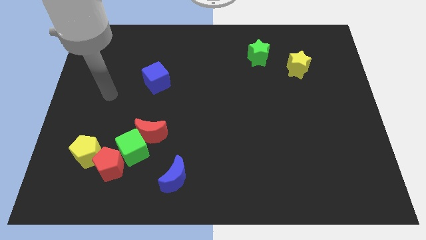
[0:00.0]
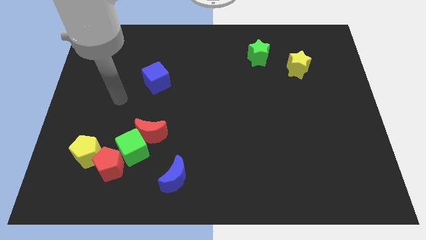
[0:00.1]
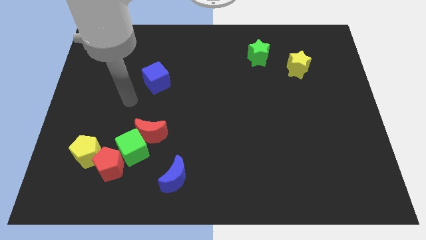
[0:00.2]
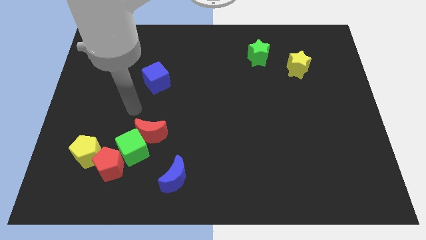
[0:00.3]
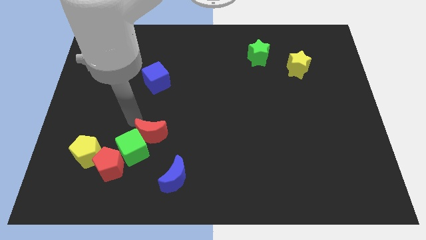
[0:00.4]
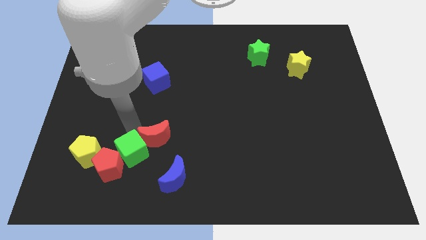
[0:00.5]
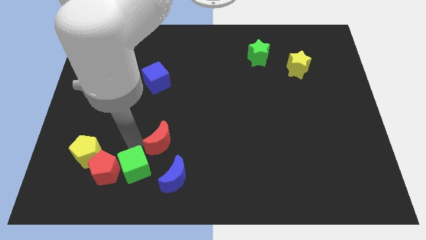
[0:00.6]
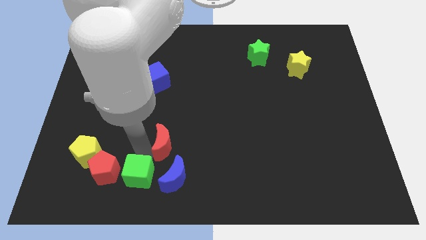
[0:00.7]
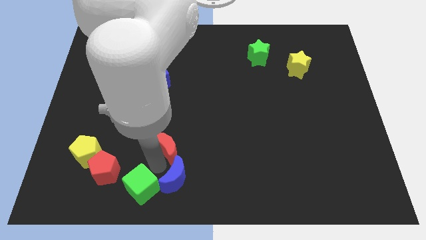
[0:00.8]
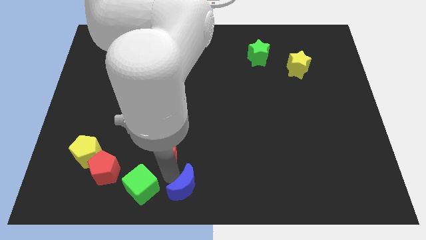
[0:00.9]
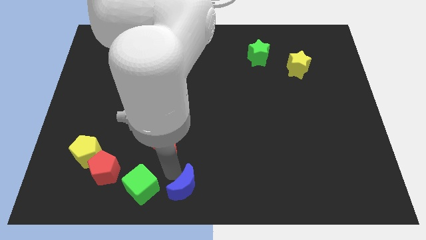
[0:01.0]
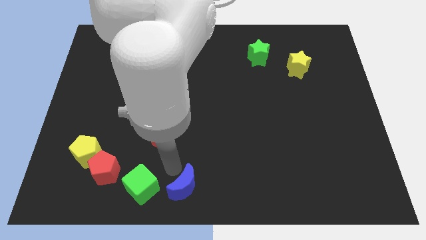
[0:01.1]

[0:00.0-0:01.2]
pull the red moon apart from the green cube

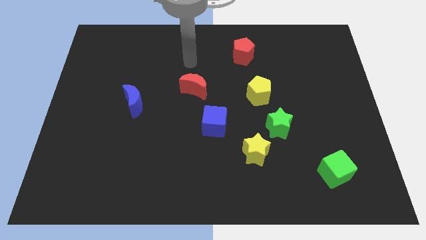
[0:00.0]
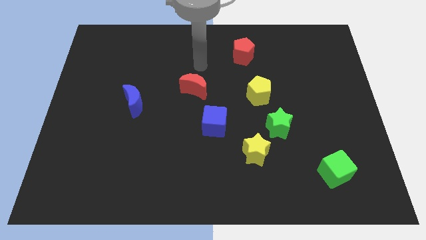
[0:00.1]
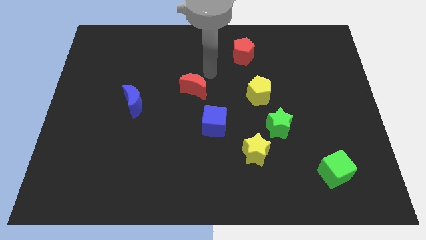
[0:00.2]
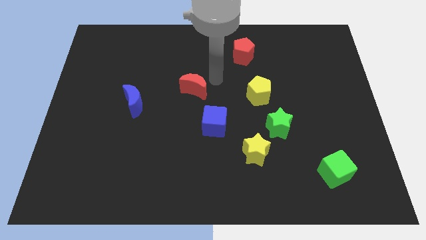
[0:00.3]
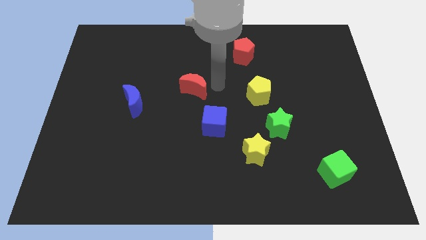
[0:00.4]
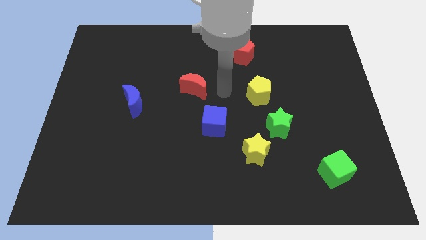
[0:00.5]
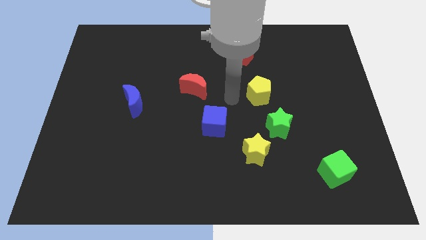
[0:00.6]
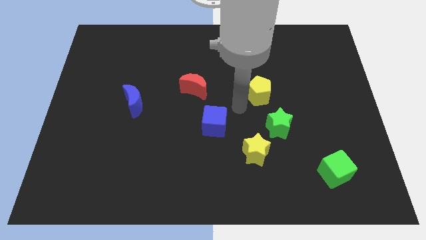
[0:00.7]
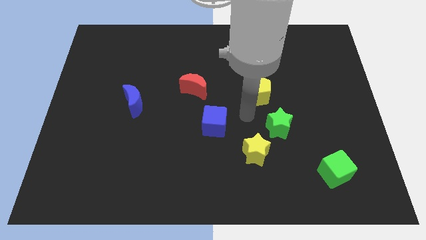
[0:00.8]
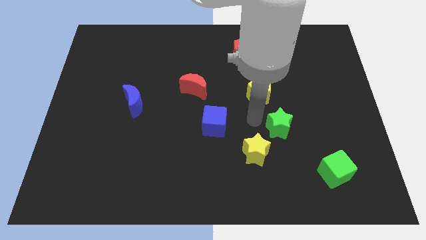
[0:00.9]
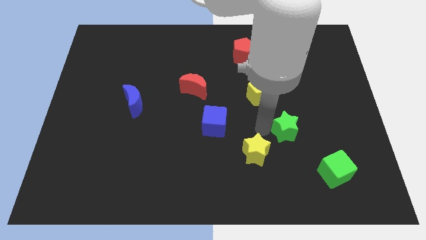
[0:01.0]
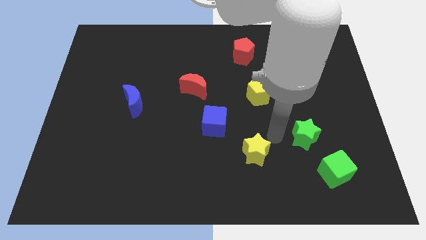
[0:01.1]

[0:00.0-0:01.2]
separate the yellow star from the green star

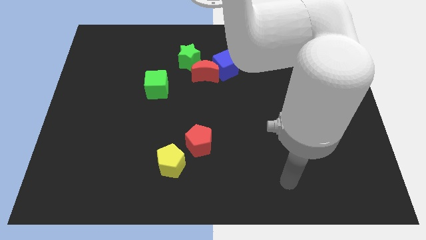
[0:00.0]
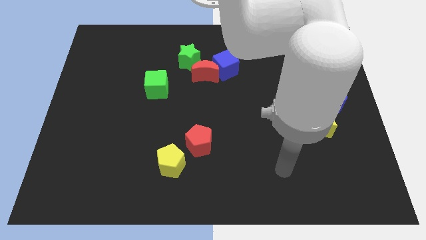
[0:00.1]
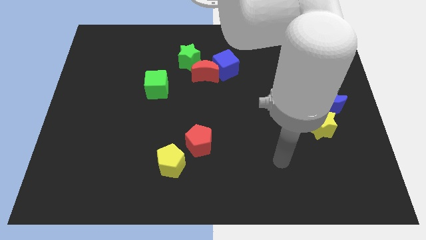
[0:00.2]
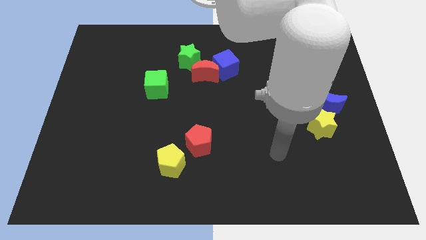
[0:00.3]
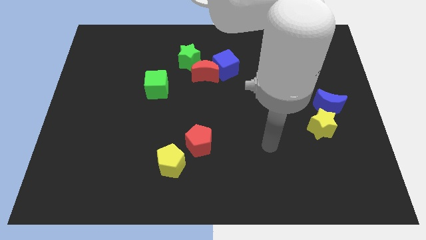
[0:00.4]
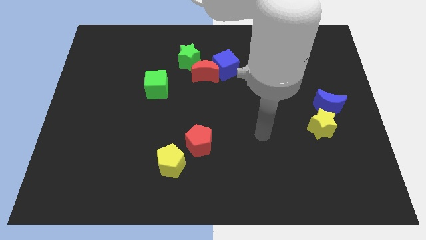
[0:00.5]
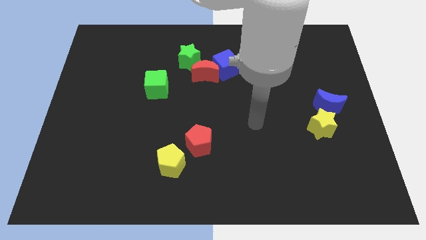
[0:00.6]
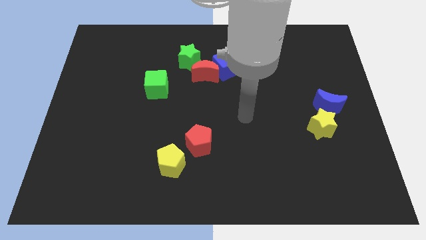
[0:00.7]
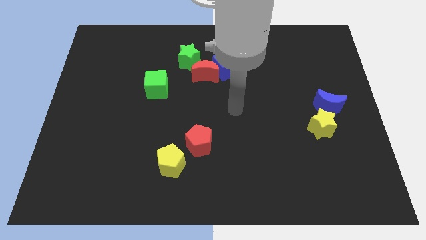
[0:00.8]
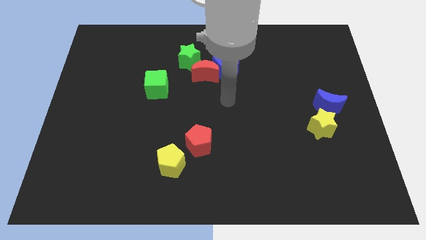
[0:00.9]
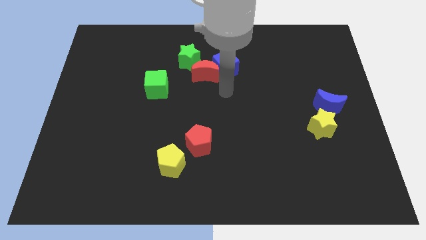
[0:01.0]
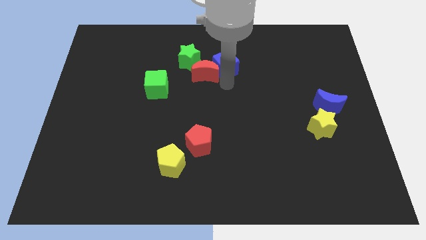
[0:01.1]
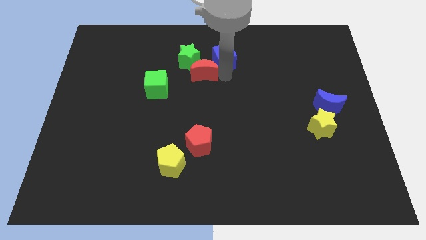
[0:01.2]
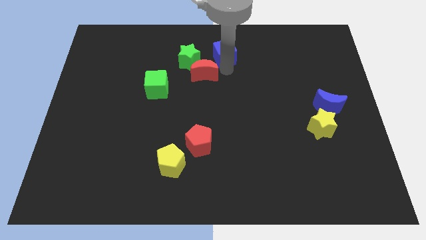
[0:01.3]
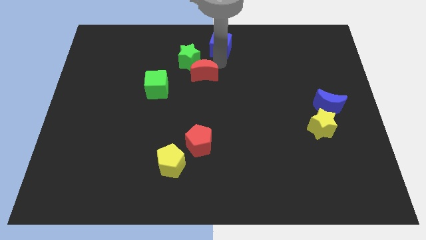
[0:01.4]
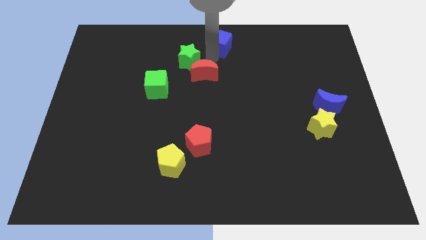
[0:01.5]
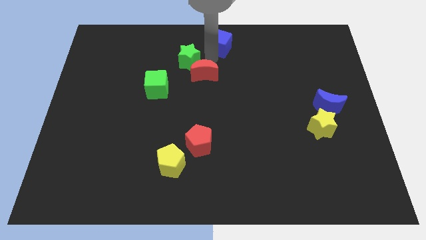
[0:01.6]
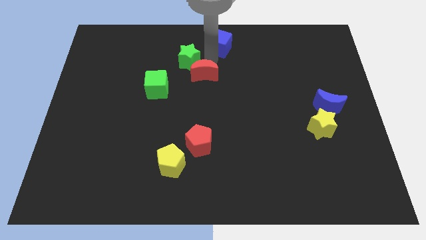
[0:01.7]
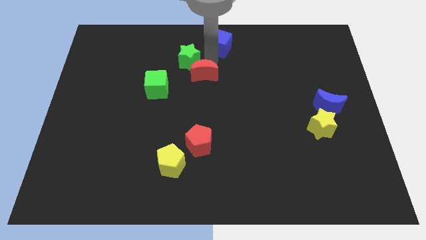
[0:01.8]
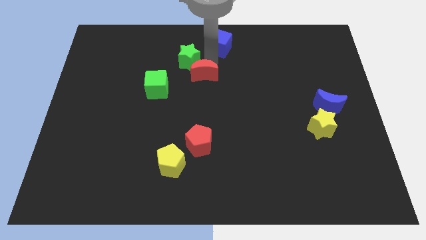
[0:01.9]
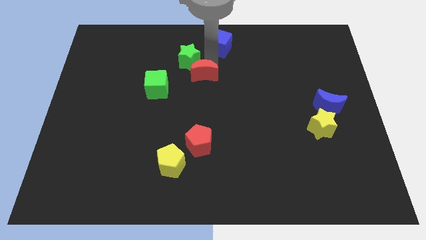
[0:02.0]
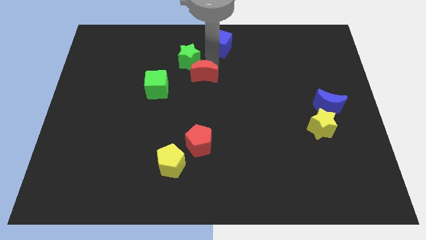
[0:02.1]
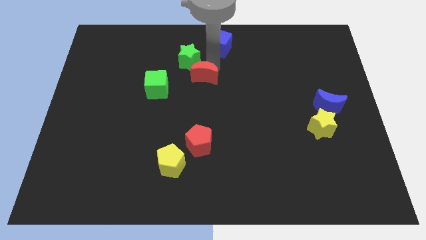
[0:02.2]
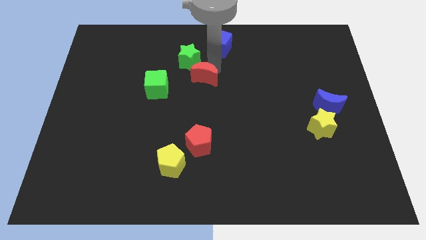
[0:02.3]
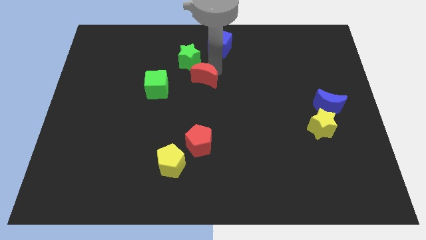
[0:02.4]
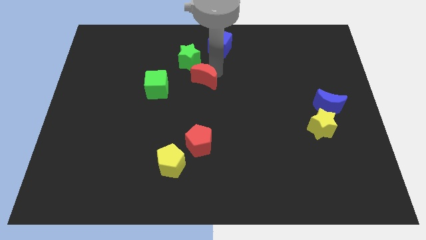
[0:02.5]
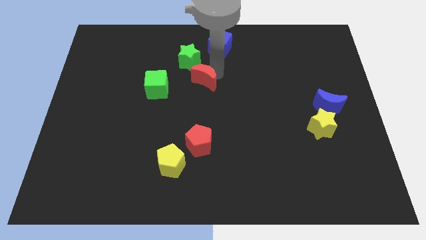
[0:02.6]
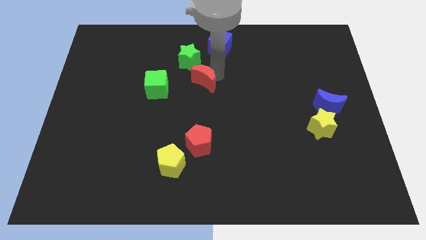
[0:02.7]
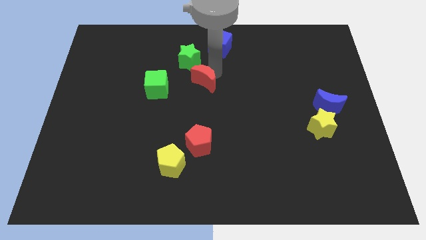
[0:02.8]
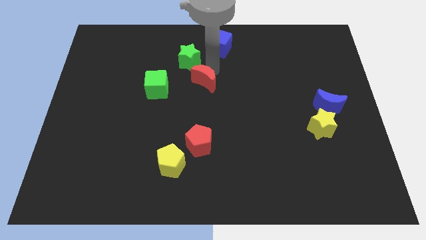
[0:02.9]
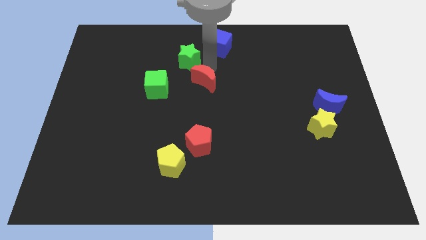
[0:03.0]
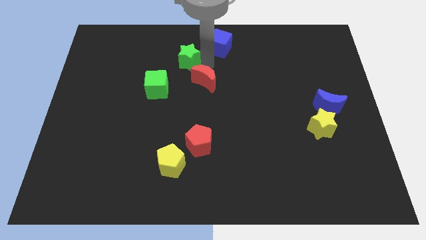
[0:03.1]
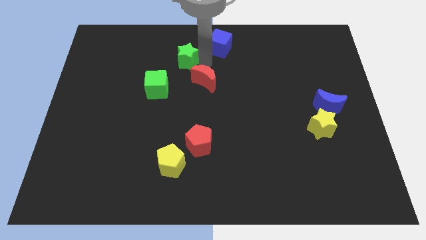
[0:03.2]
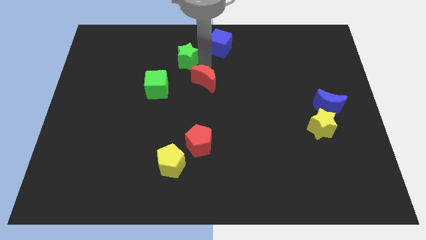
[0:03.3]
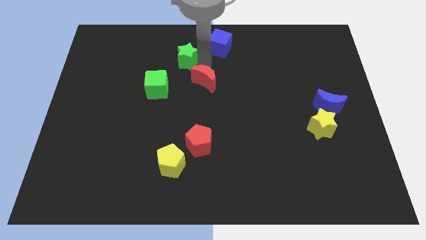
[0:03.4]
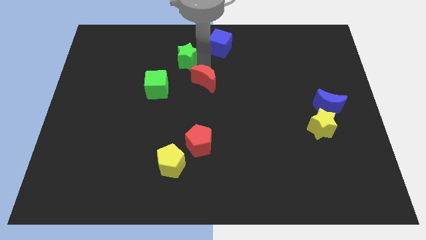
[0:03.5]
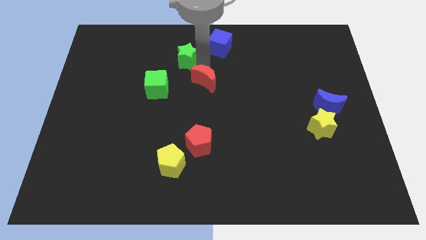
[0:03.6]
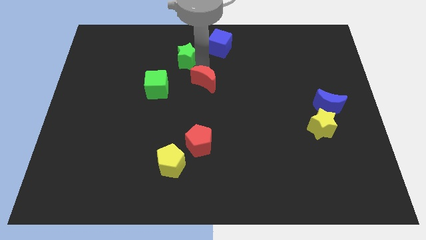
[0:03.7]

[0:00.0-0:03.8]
move the red moon away from the blue cube and green star

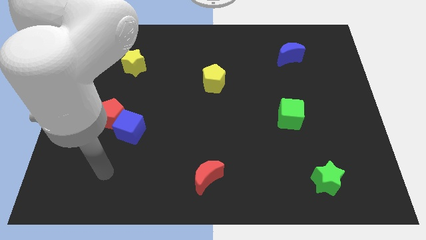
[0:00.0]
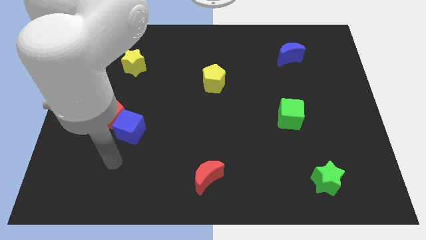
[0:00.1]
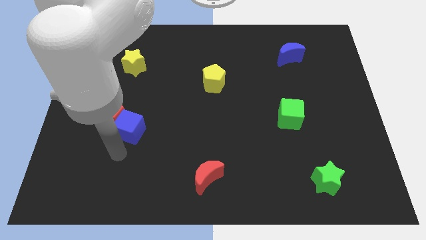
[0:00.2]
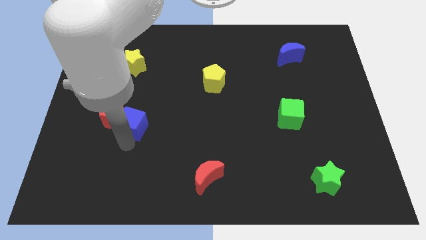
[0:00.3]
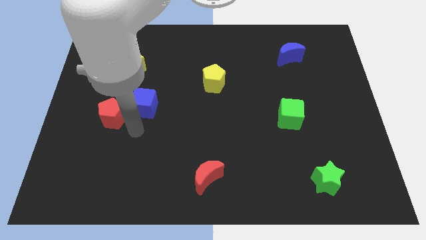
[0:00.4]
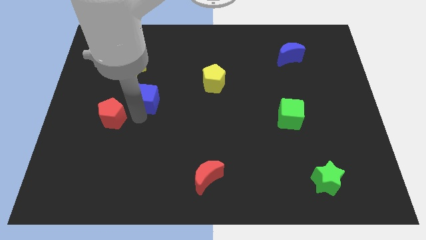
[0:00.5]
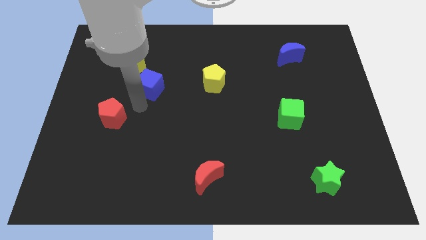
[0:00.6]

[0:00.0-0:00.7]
separate the red pentagon from the blue cube

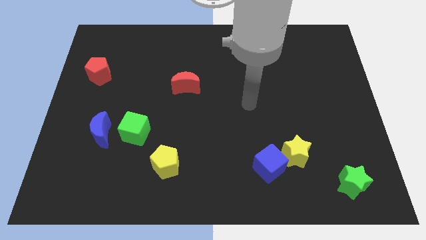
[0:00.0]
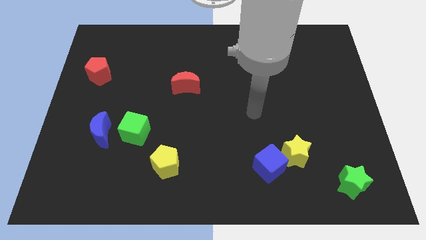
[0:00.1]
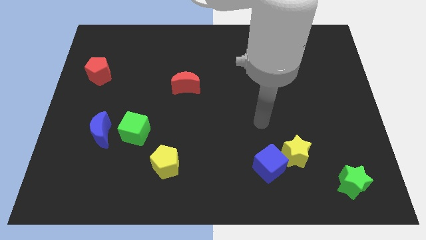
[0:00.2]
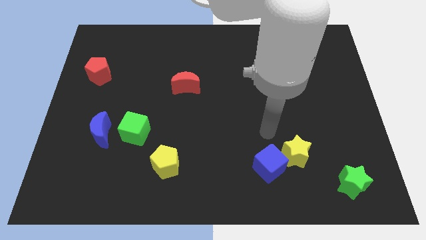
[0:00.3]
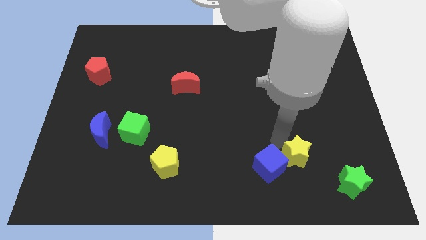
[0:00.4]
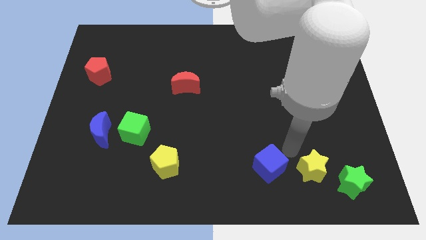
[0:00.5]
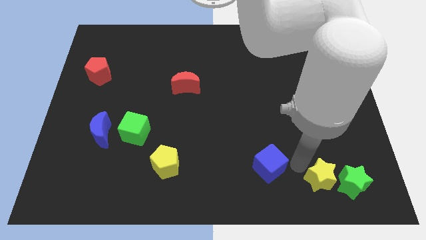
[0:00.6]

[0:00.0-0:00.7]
pull the blue cube apart from the yellow star

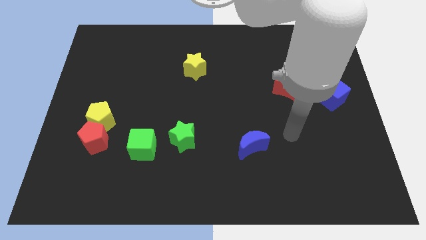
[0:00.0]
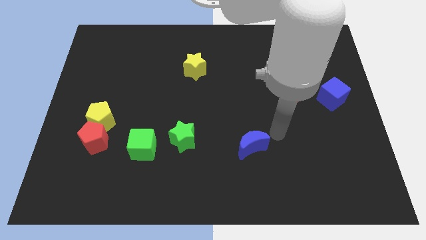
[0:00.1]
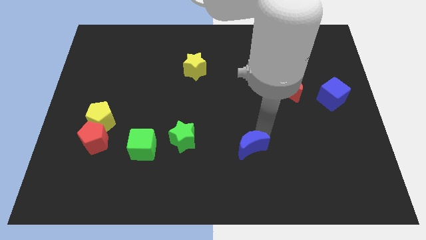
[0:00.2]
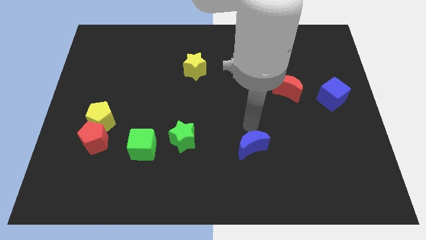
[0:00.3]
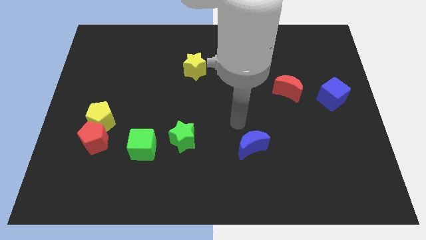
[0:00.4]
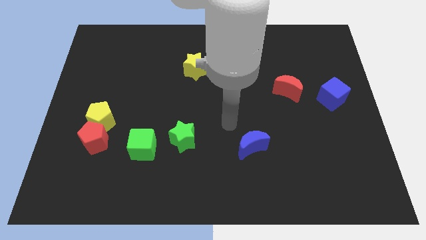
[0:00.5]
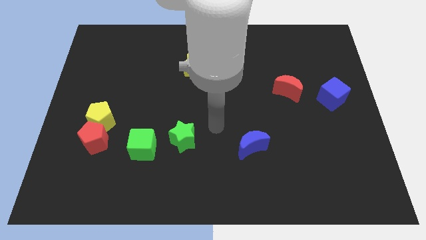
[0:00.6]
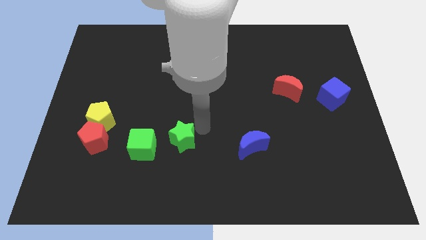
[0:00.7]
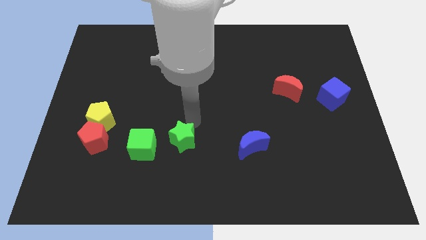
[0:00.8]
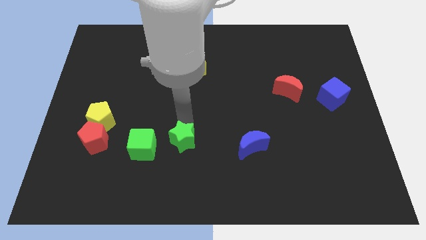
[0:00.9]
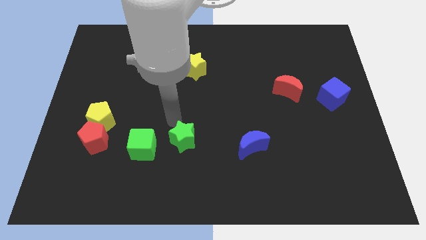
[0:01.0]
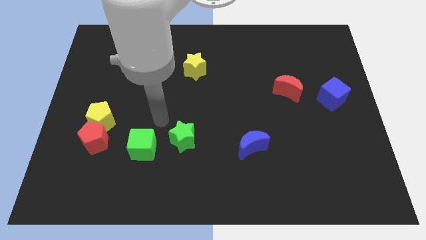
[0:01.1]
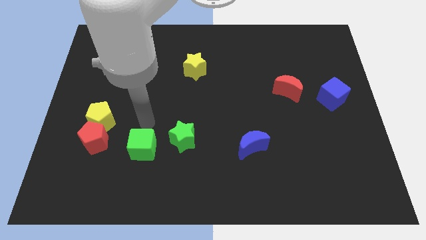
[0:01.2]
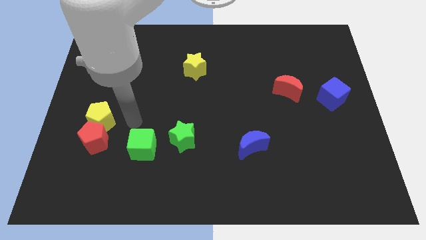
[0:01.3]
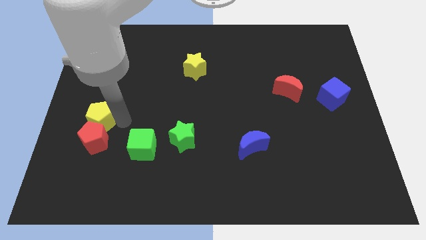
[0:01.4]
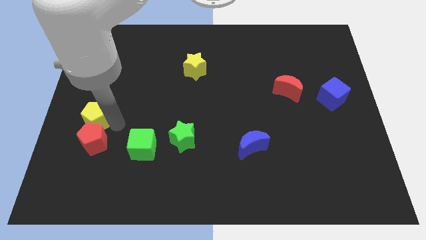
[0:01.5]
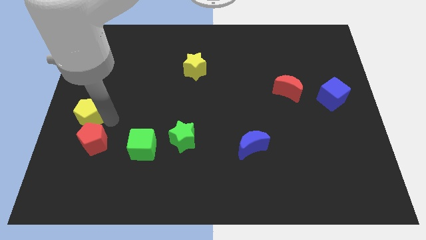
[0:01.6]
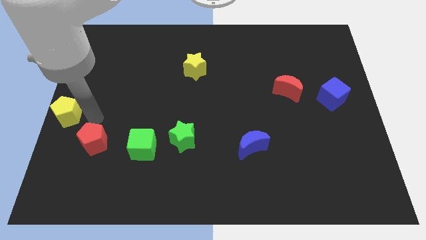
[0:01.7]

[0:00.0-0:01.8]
move the red pentagon away from the yellow pentagon
